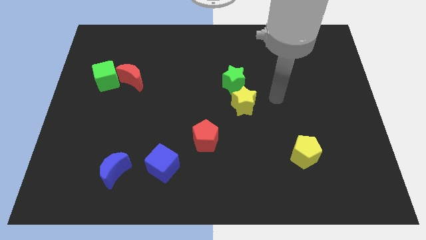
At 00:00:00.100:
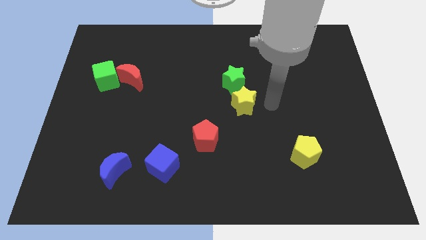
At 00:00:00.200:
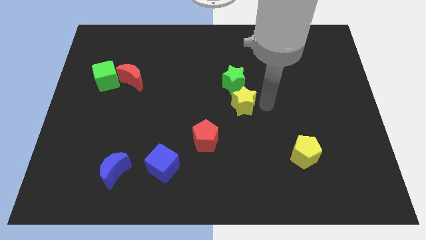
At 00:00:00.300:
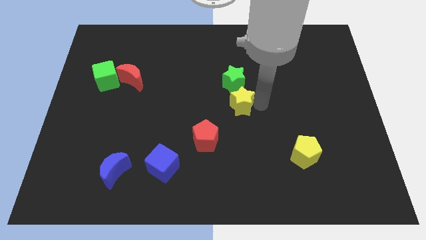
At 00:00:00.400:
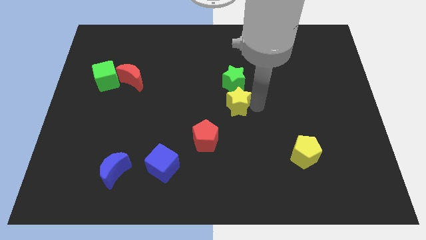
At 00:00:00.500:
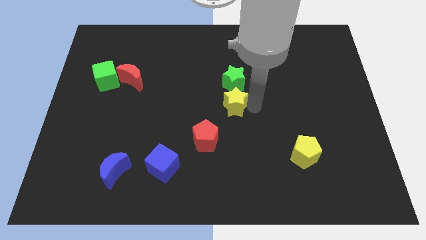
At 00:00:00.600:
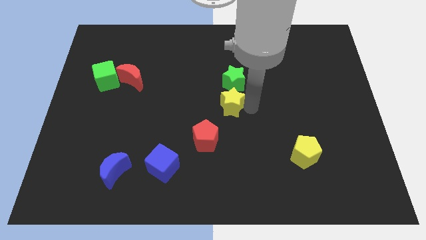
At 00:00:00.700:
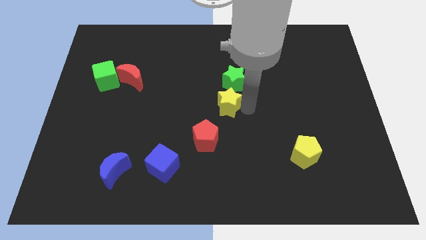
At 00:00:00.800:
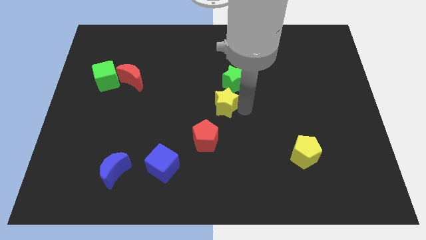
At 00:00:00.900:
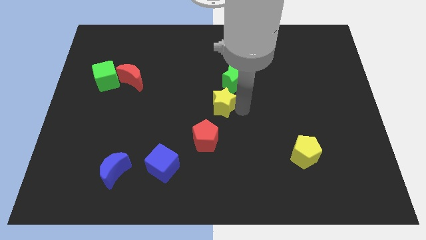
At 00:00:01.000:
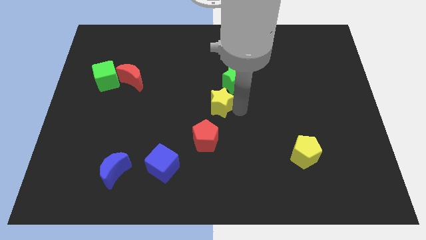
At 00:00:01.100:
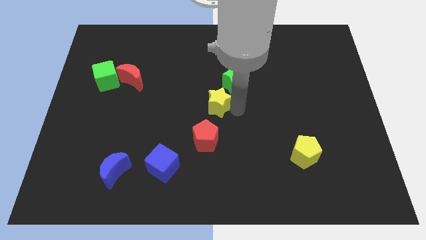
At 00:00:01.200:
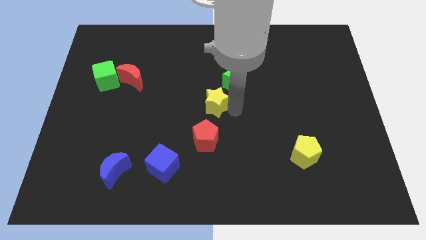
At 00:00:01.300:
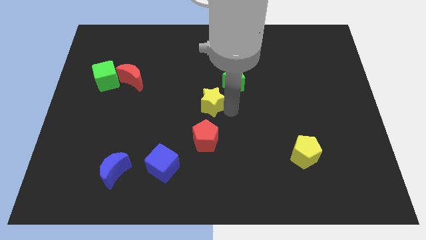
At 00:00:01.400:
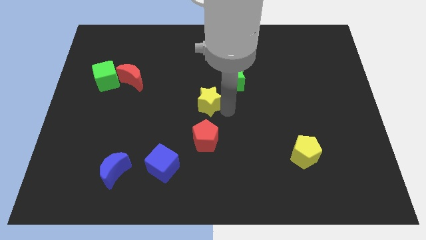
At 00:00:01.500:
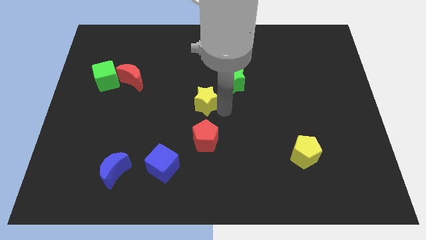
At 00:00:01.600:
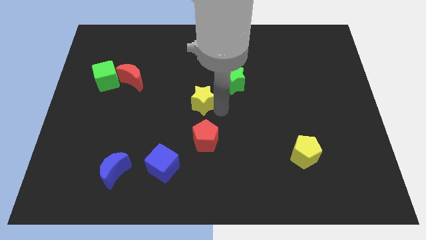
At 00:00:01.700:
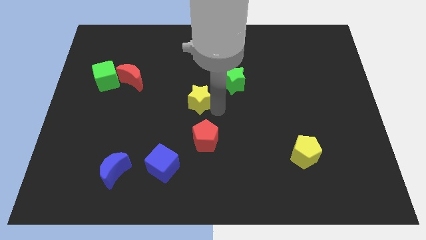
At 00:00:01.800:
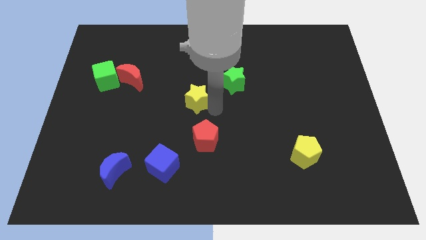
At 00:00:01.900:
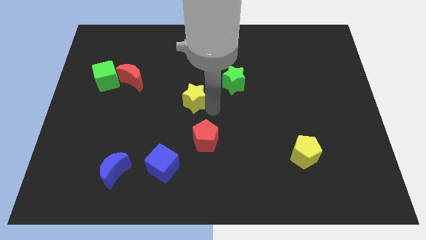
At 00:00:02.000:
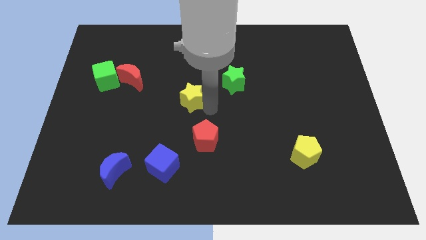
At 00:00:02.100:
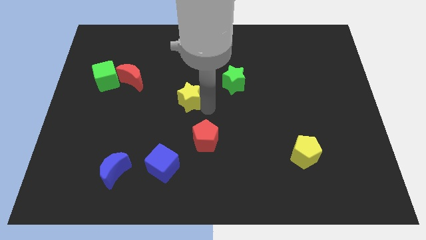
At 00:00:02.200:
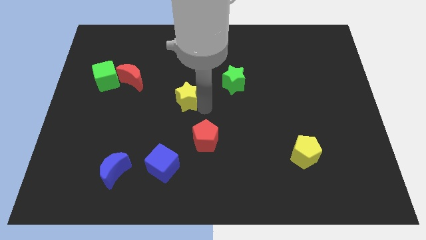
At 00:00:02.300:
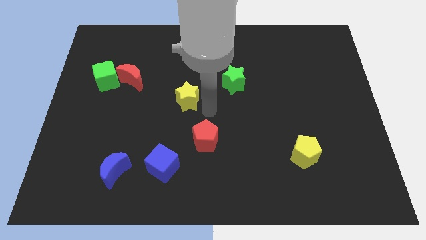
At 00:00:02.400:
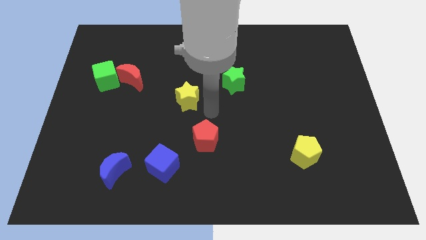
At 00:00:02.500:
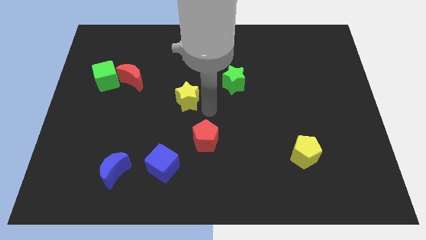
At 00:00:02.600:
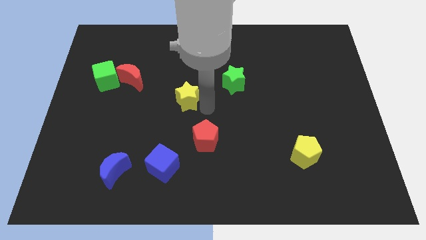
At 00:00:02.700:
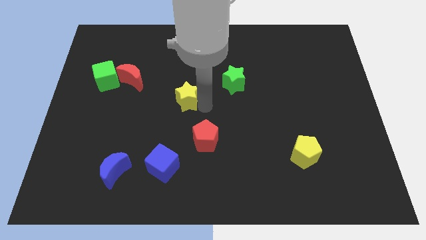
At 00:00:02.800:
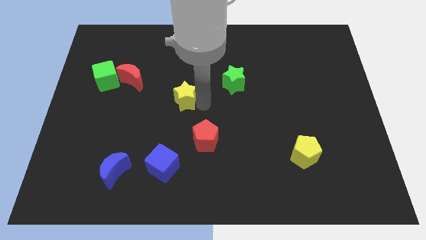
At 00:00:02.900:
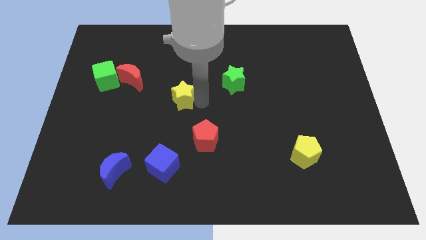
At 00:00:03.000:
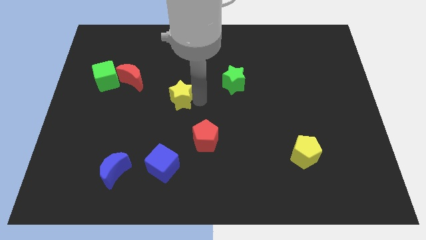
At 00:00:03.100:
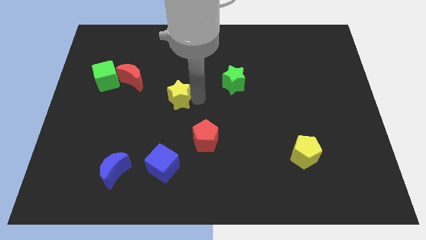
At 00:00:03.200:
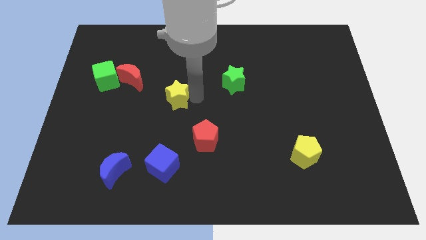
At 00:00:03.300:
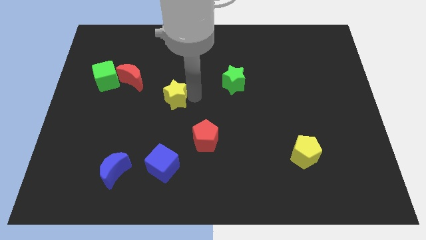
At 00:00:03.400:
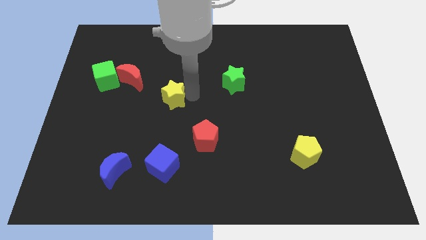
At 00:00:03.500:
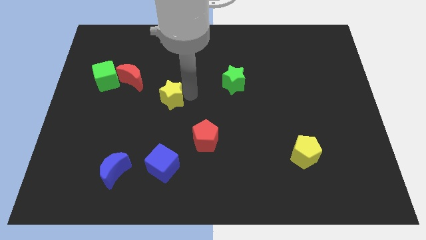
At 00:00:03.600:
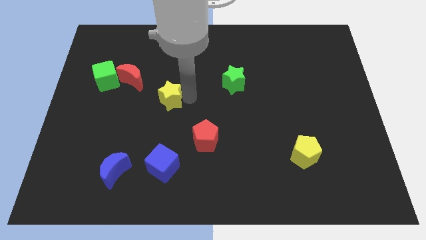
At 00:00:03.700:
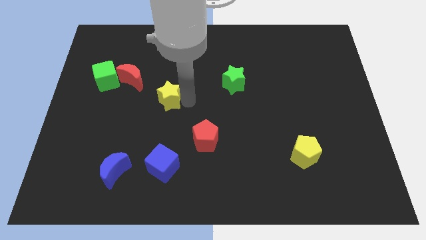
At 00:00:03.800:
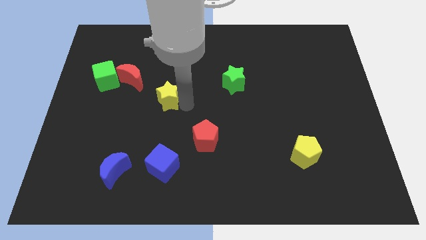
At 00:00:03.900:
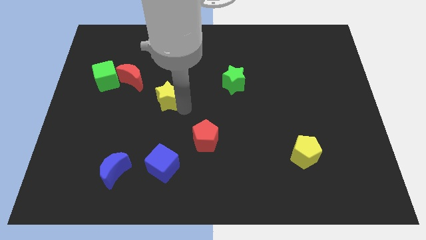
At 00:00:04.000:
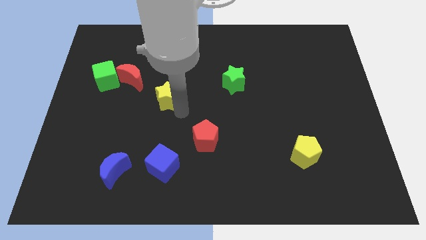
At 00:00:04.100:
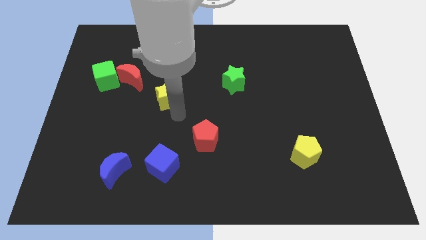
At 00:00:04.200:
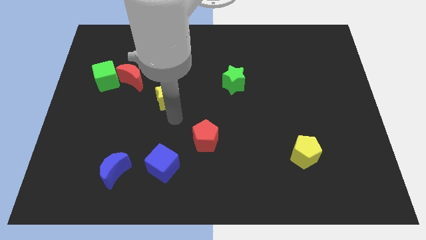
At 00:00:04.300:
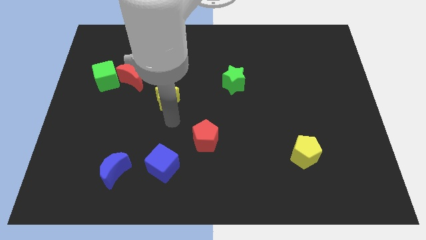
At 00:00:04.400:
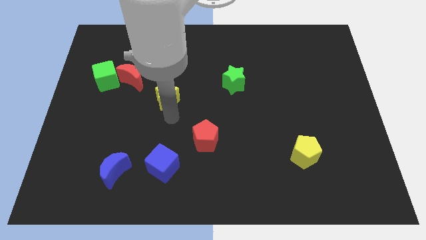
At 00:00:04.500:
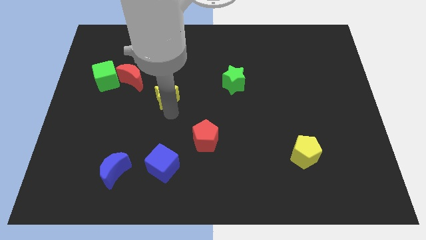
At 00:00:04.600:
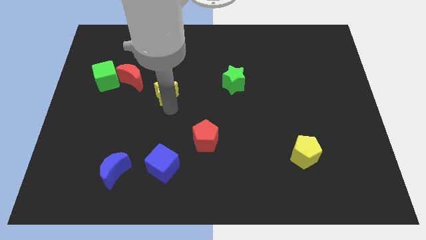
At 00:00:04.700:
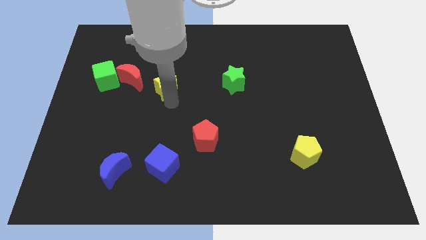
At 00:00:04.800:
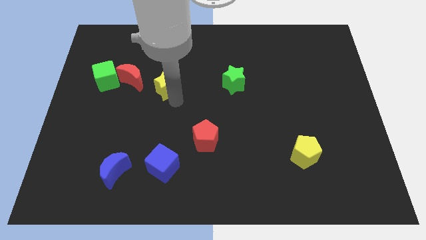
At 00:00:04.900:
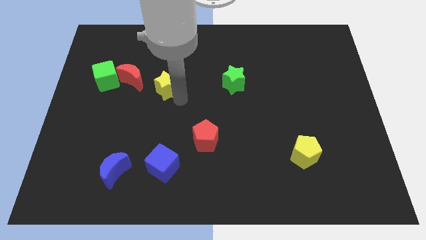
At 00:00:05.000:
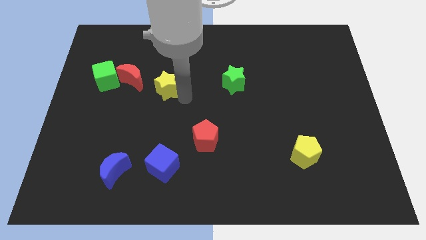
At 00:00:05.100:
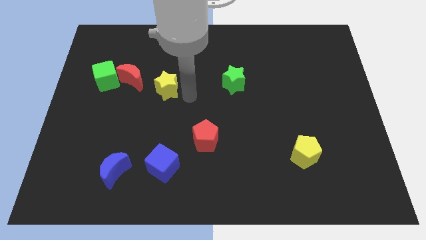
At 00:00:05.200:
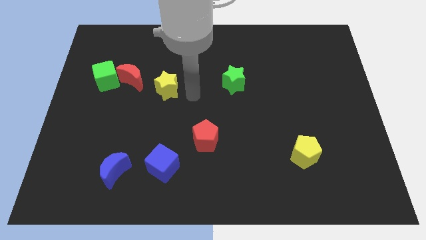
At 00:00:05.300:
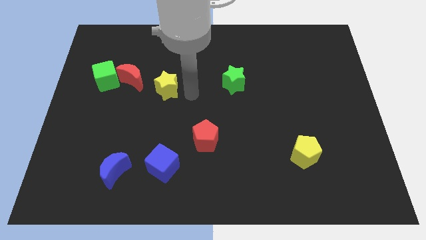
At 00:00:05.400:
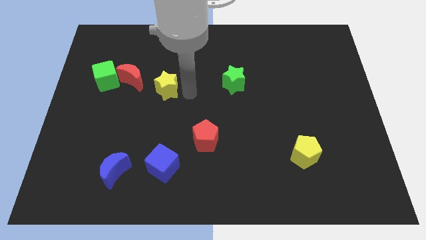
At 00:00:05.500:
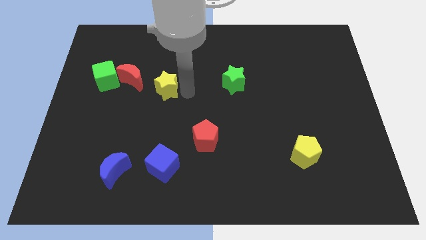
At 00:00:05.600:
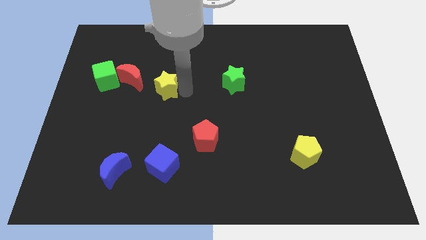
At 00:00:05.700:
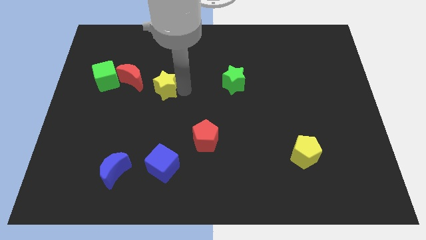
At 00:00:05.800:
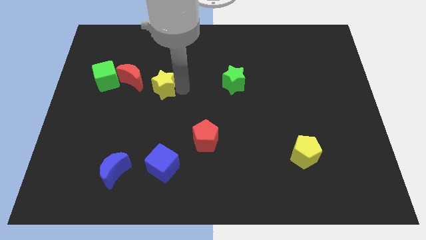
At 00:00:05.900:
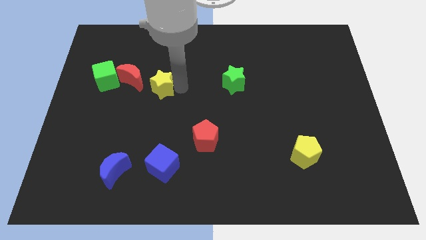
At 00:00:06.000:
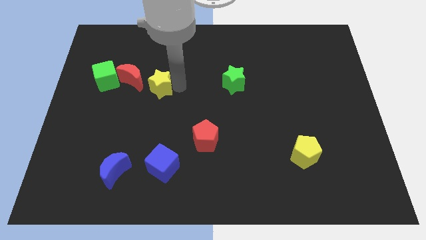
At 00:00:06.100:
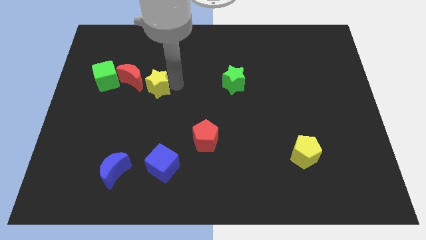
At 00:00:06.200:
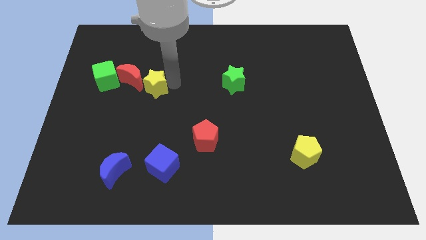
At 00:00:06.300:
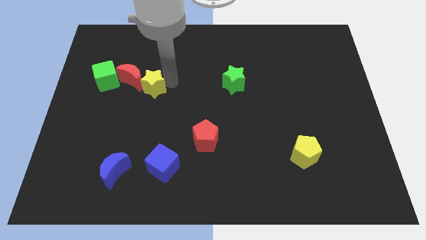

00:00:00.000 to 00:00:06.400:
slide the yellow star close to the red moon
